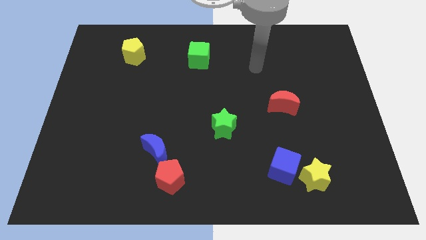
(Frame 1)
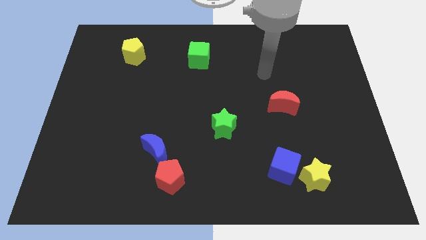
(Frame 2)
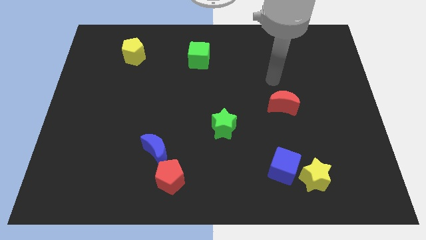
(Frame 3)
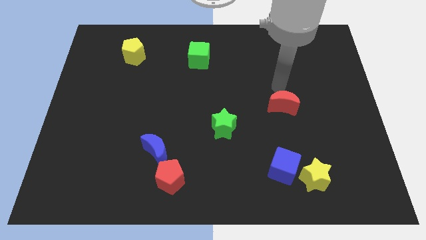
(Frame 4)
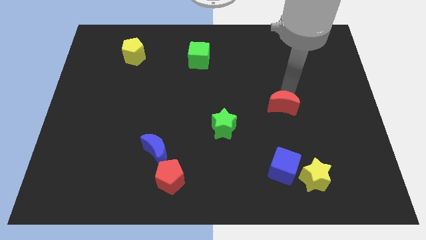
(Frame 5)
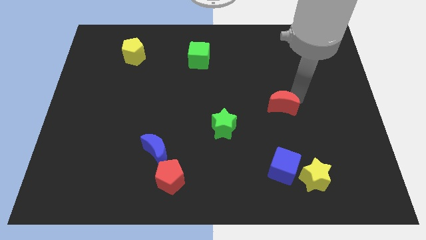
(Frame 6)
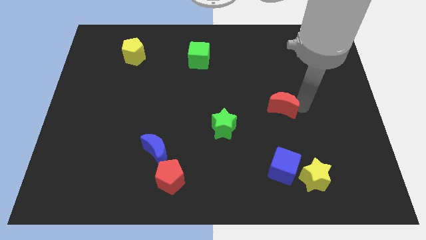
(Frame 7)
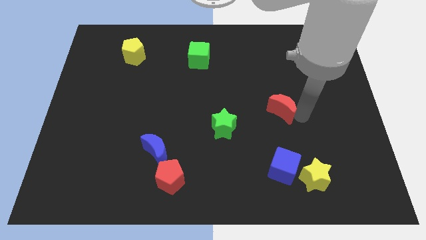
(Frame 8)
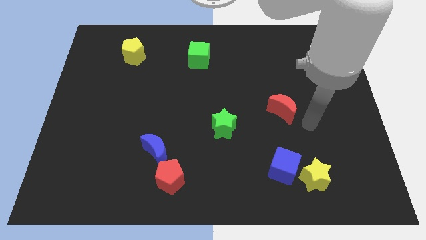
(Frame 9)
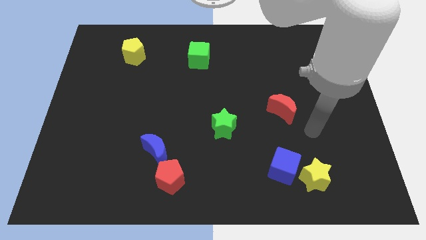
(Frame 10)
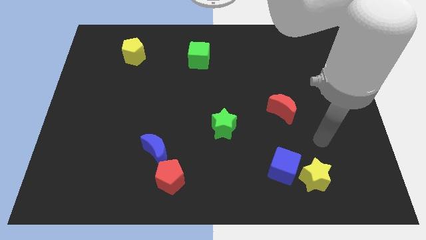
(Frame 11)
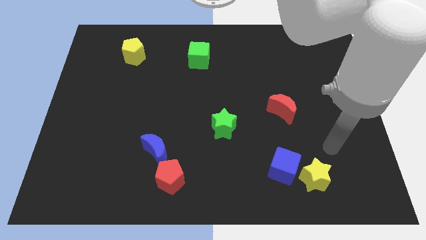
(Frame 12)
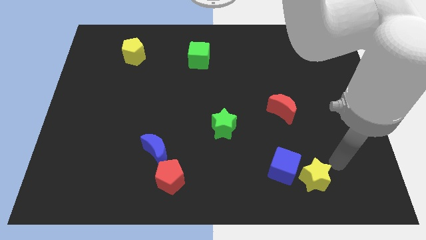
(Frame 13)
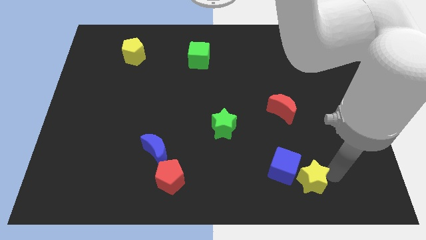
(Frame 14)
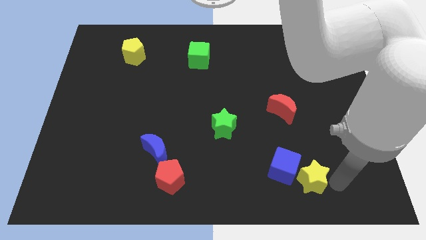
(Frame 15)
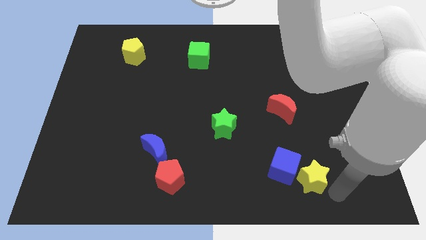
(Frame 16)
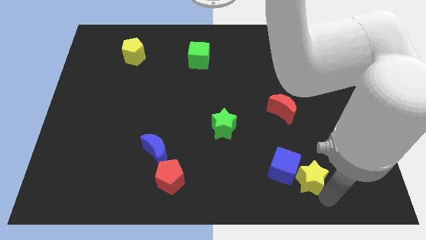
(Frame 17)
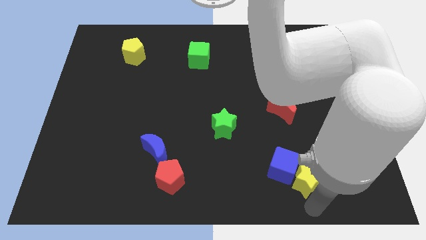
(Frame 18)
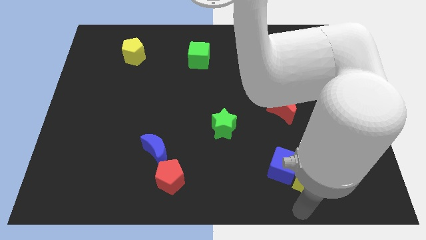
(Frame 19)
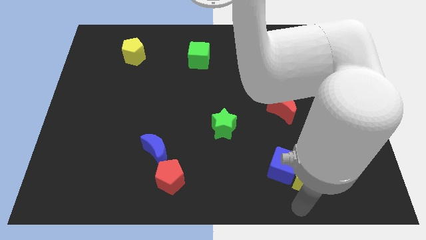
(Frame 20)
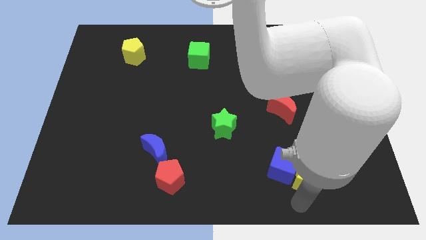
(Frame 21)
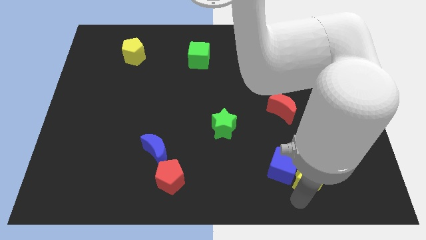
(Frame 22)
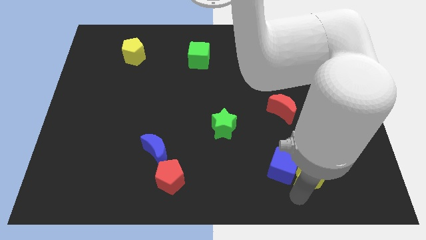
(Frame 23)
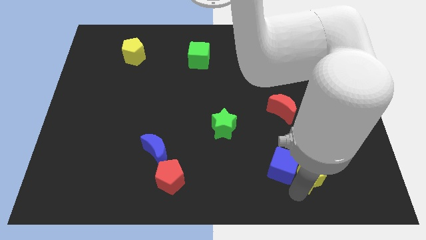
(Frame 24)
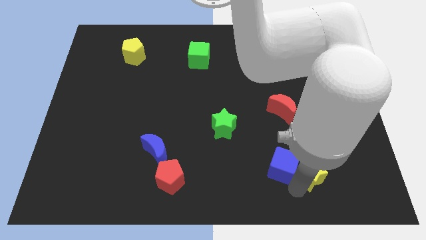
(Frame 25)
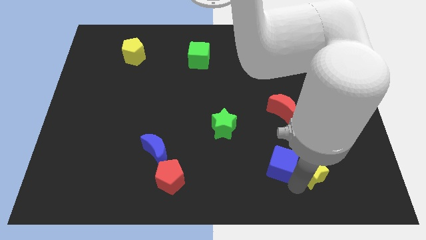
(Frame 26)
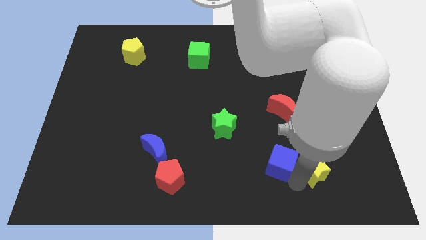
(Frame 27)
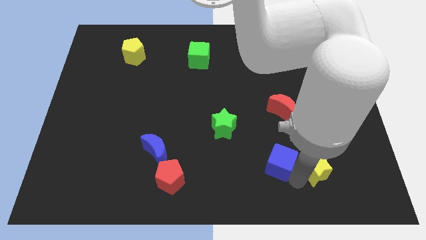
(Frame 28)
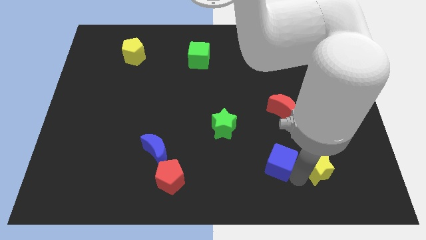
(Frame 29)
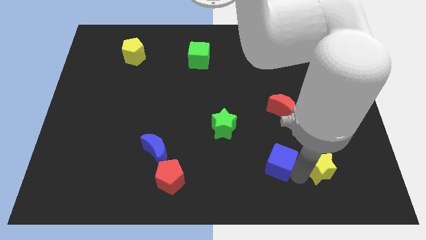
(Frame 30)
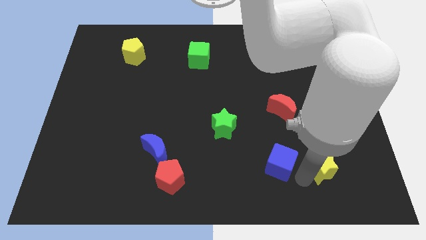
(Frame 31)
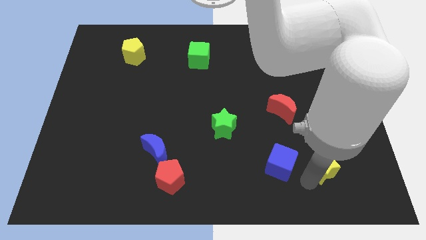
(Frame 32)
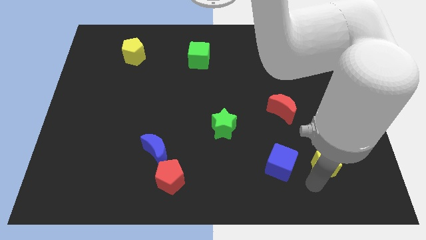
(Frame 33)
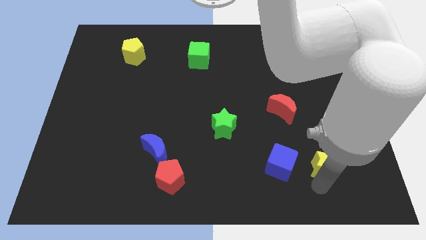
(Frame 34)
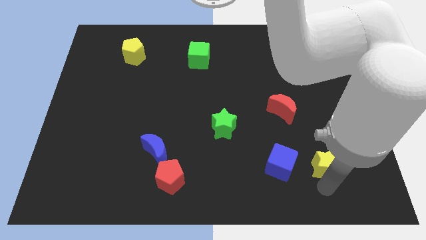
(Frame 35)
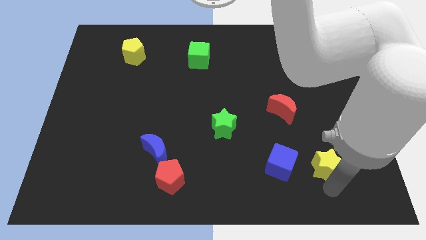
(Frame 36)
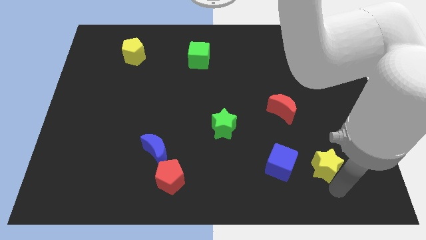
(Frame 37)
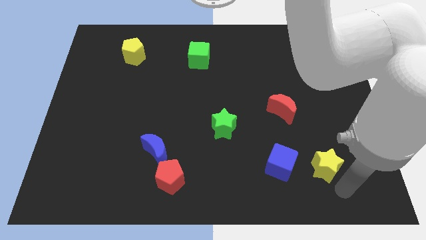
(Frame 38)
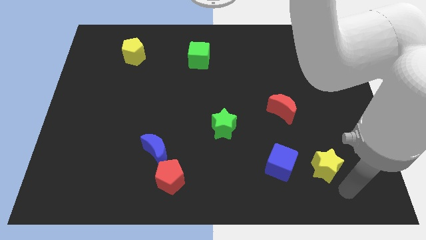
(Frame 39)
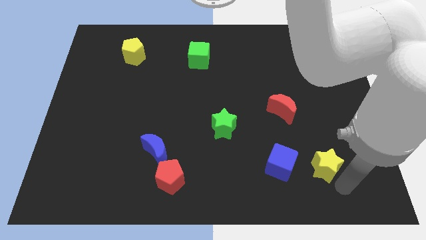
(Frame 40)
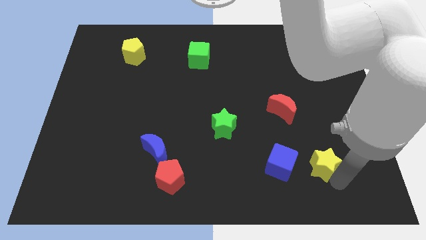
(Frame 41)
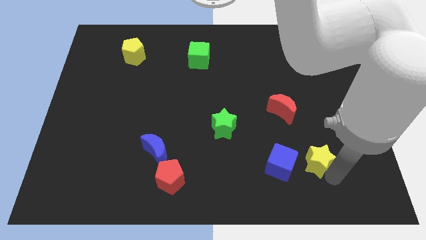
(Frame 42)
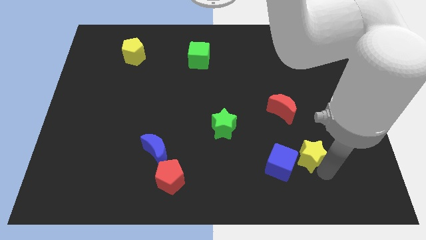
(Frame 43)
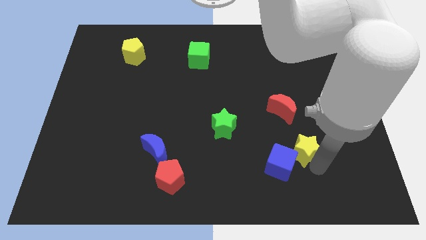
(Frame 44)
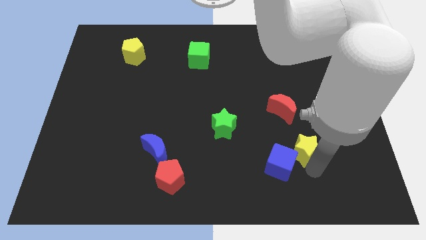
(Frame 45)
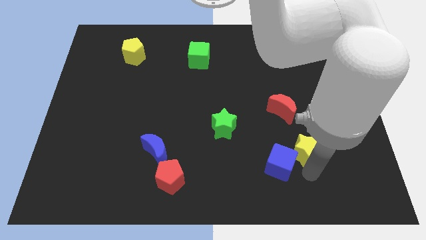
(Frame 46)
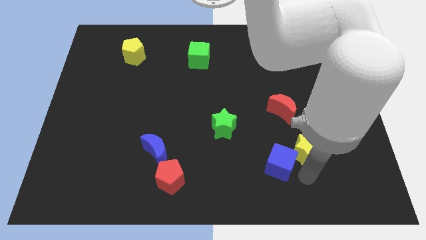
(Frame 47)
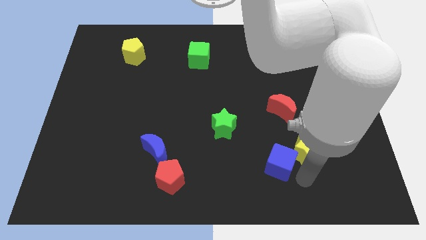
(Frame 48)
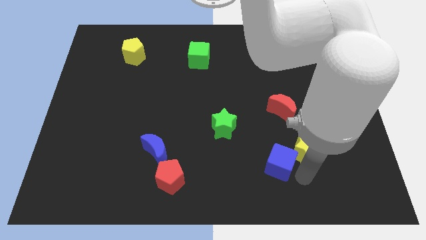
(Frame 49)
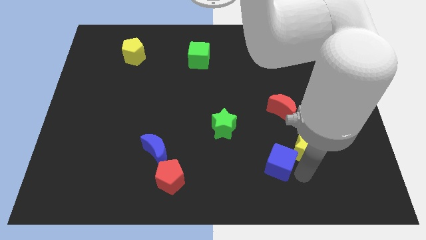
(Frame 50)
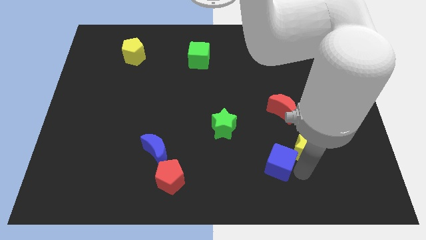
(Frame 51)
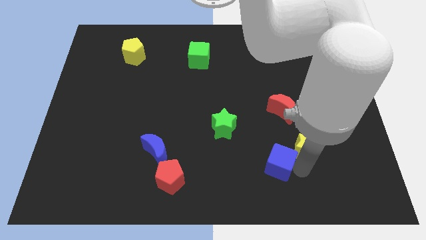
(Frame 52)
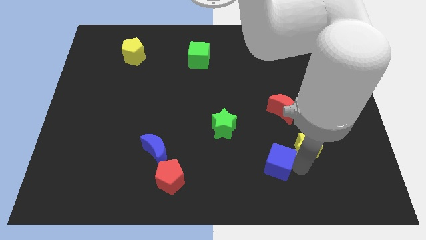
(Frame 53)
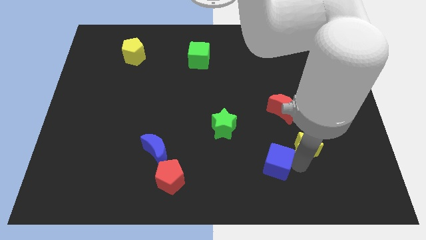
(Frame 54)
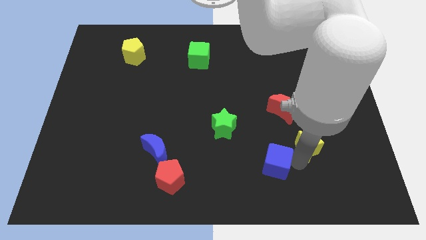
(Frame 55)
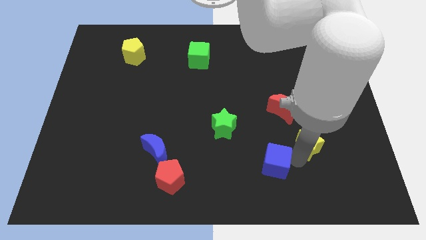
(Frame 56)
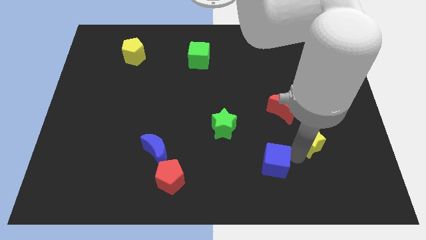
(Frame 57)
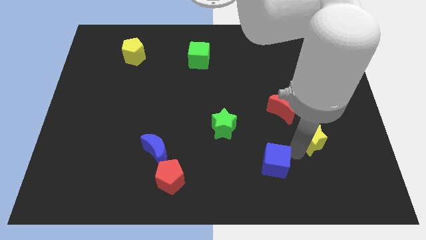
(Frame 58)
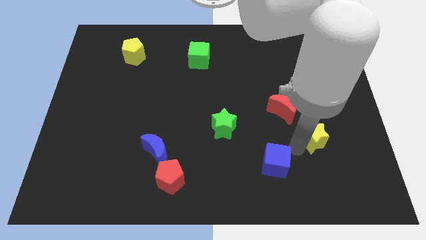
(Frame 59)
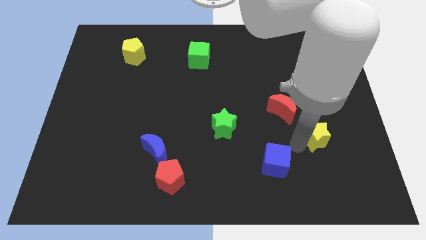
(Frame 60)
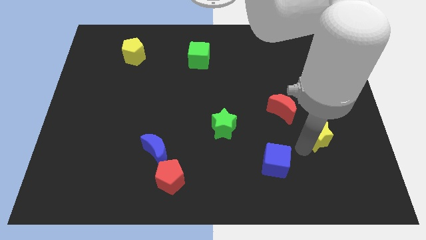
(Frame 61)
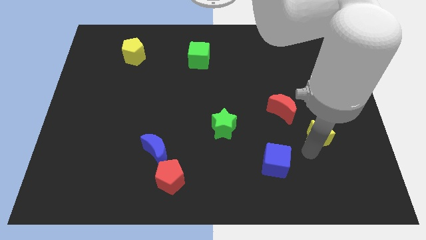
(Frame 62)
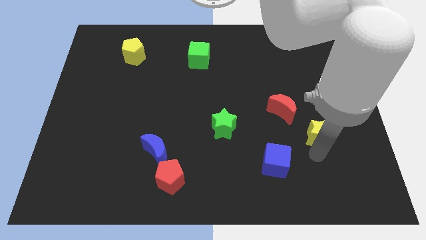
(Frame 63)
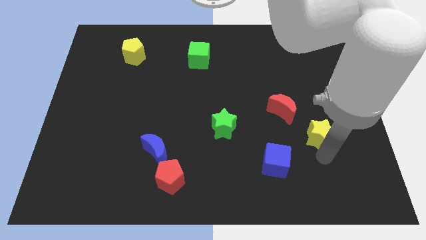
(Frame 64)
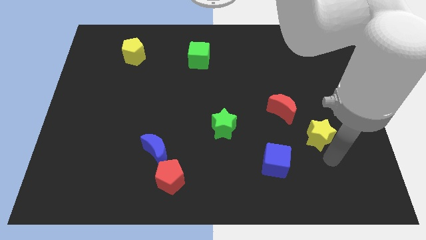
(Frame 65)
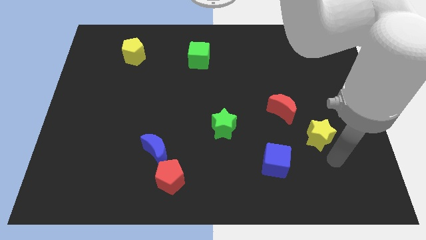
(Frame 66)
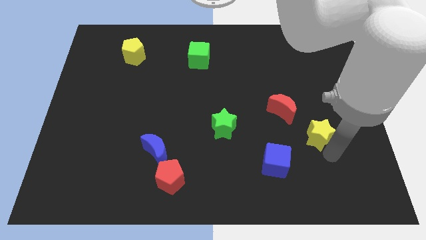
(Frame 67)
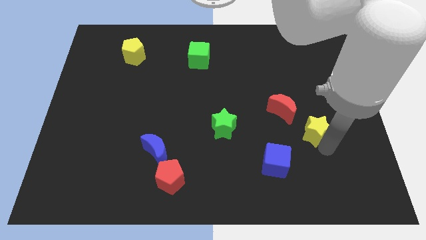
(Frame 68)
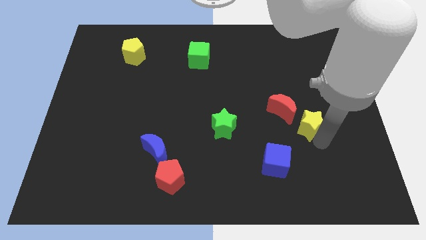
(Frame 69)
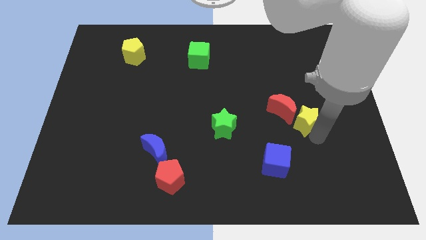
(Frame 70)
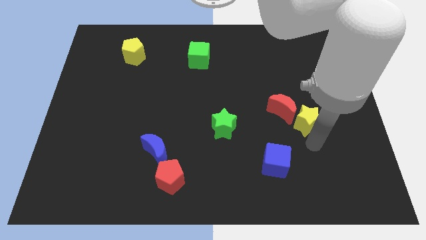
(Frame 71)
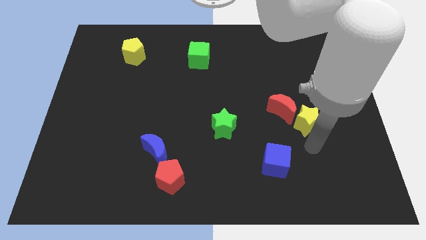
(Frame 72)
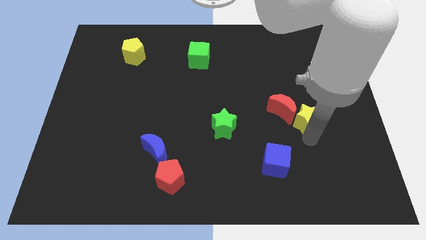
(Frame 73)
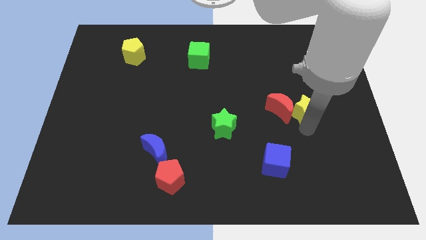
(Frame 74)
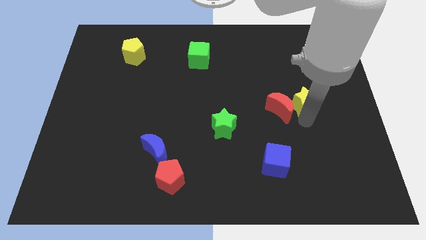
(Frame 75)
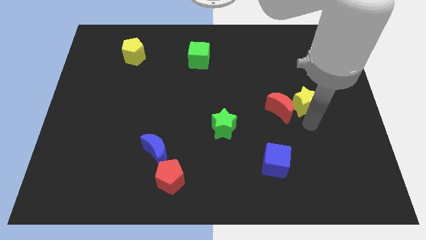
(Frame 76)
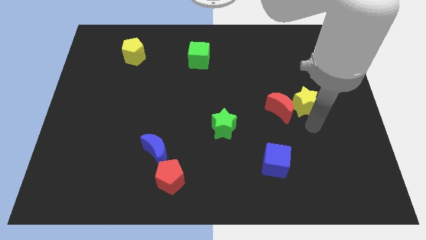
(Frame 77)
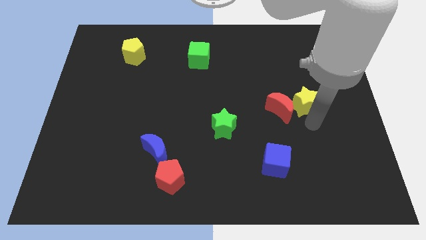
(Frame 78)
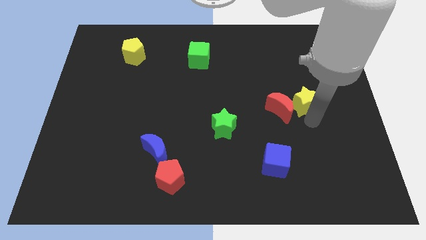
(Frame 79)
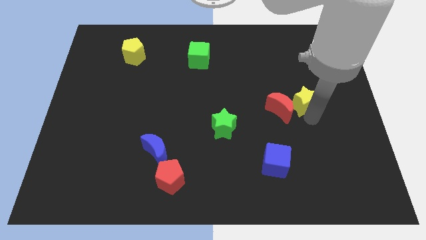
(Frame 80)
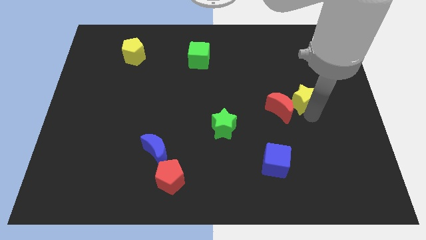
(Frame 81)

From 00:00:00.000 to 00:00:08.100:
push the yellow star up
